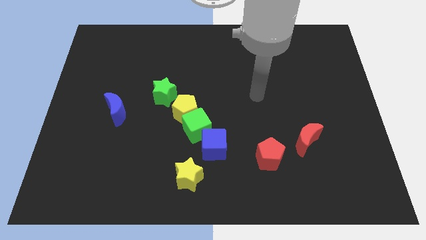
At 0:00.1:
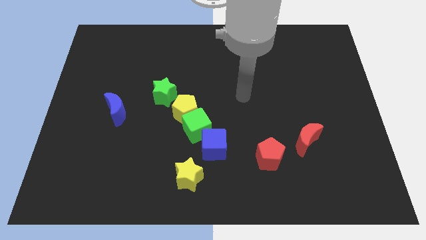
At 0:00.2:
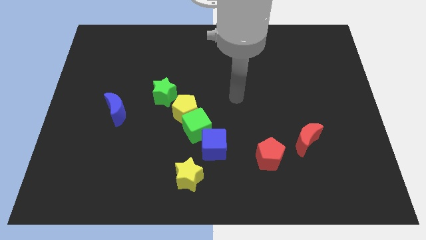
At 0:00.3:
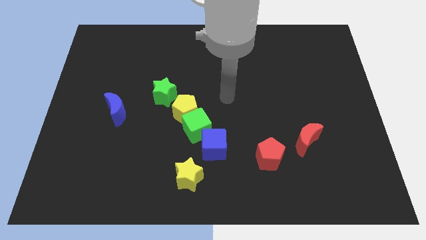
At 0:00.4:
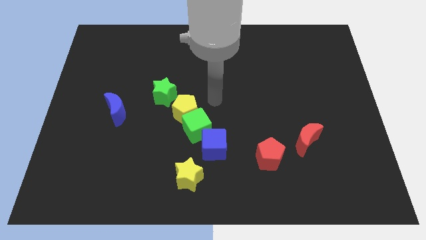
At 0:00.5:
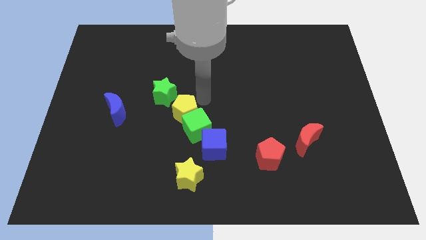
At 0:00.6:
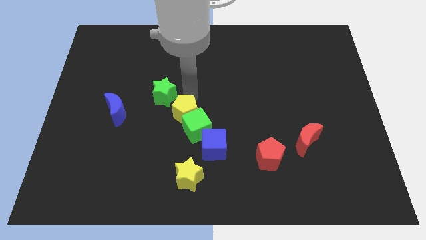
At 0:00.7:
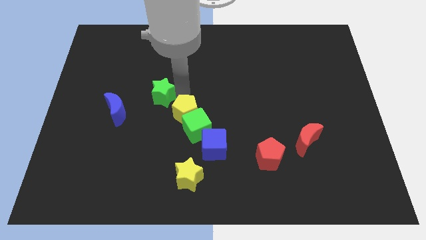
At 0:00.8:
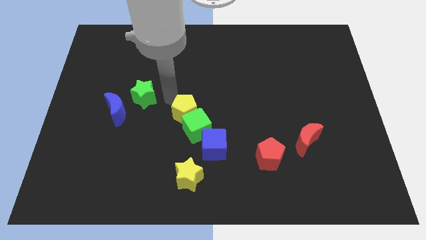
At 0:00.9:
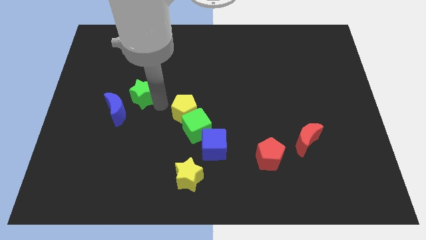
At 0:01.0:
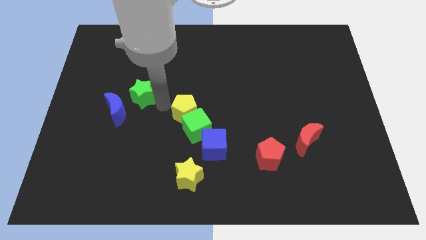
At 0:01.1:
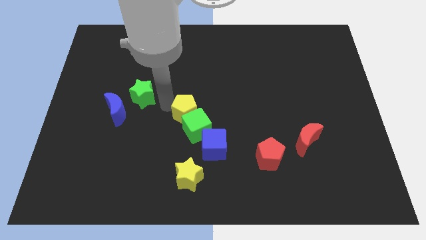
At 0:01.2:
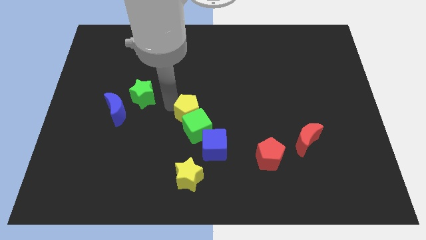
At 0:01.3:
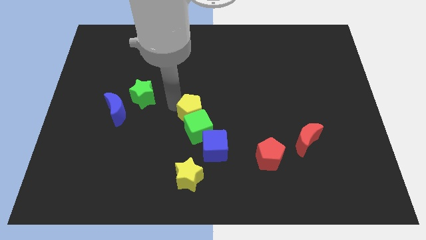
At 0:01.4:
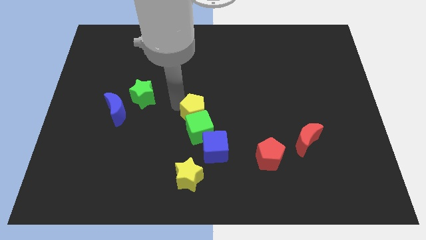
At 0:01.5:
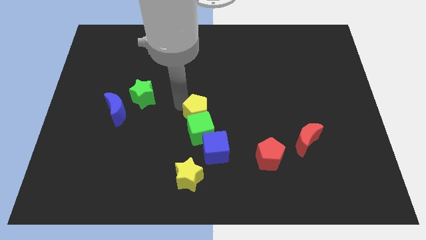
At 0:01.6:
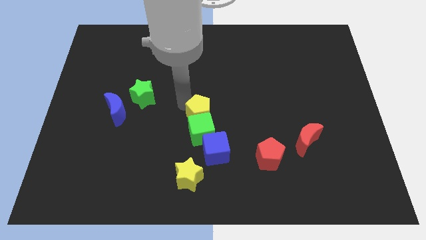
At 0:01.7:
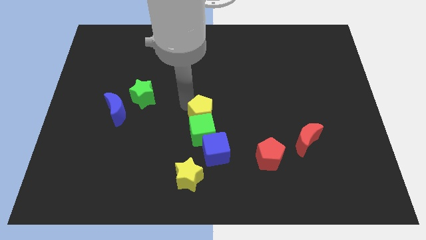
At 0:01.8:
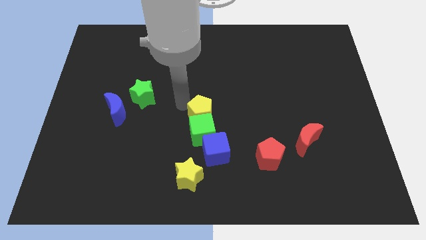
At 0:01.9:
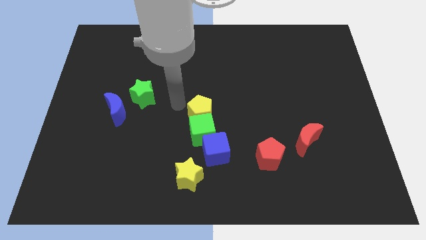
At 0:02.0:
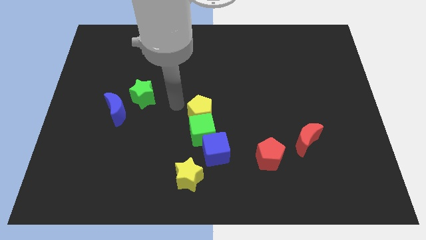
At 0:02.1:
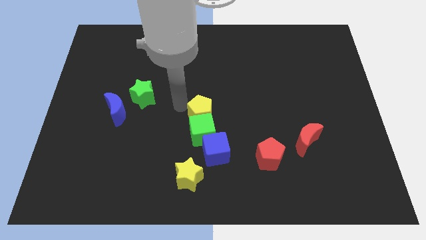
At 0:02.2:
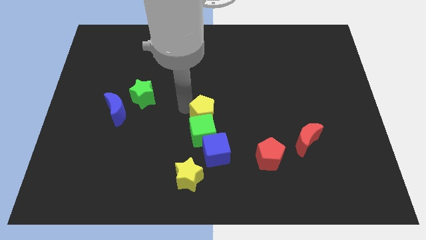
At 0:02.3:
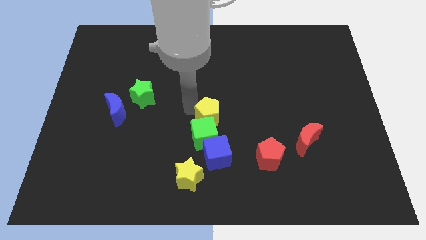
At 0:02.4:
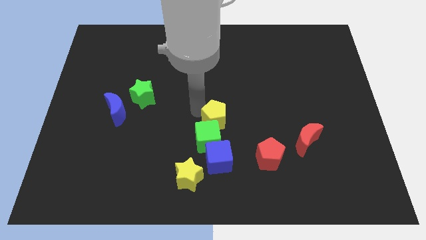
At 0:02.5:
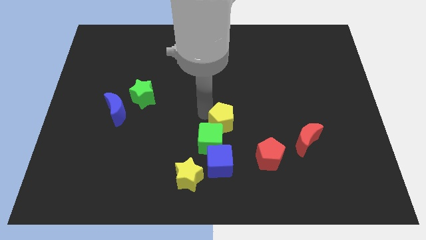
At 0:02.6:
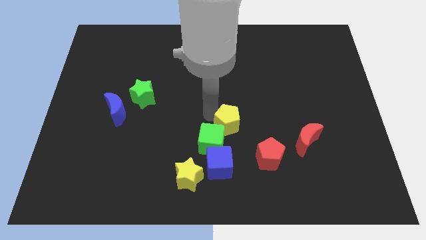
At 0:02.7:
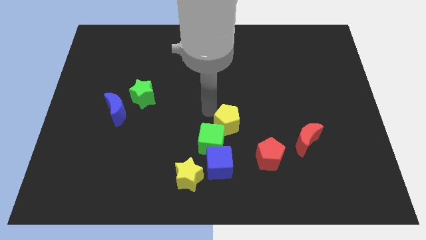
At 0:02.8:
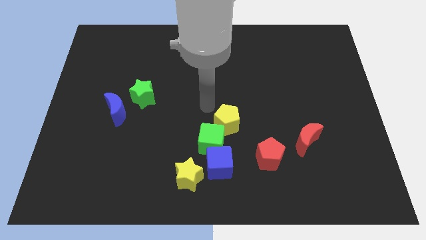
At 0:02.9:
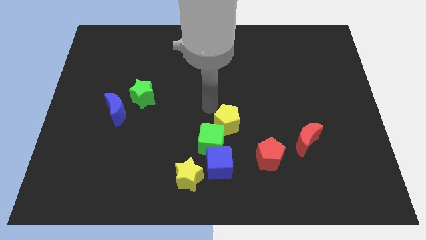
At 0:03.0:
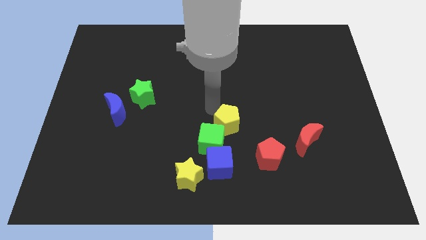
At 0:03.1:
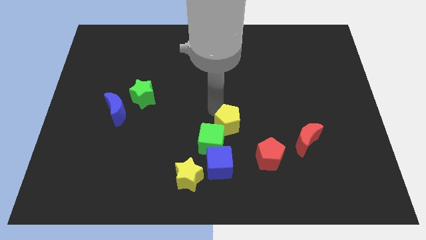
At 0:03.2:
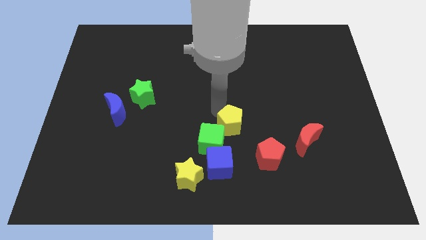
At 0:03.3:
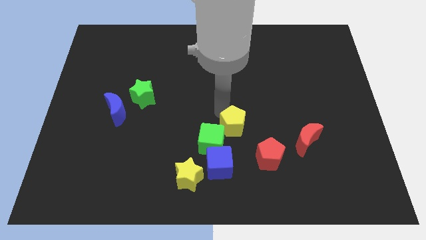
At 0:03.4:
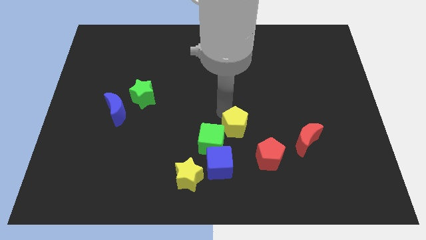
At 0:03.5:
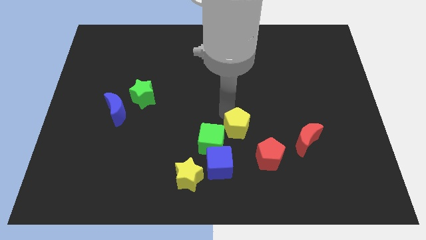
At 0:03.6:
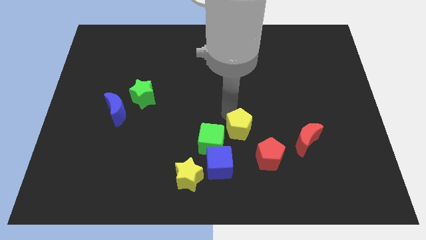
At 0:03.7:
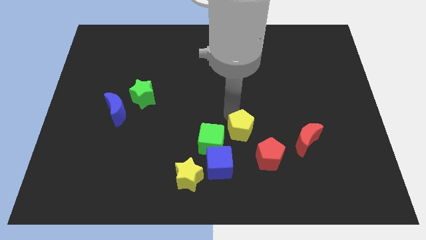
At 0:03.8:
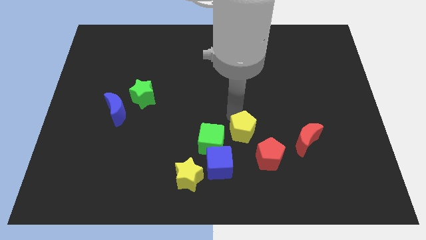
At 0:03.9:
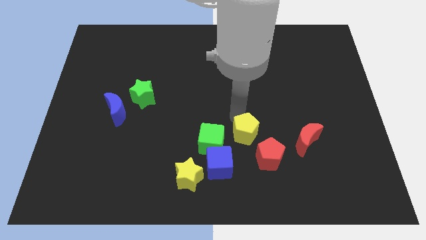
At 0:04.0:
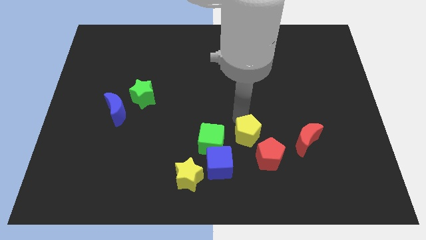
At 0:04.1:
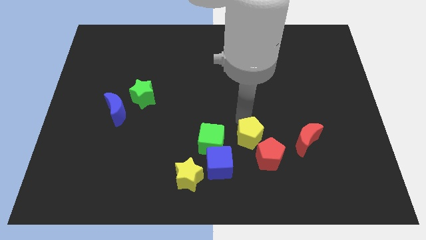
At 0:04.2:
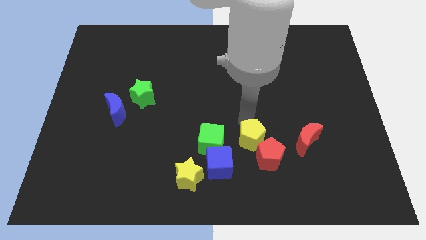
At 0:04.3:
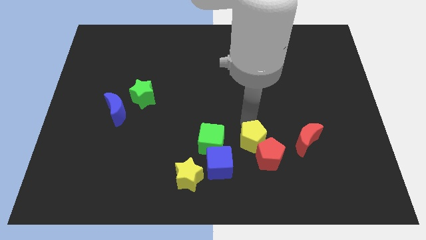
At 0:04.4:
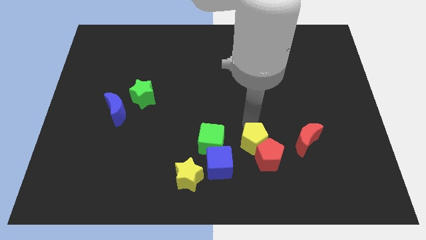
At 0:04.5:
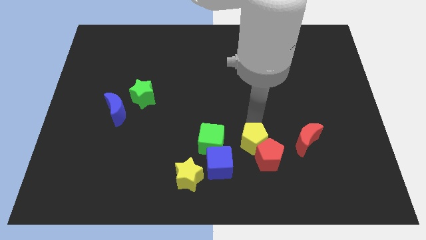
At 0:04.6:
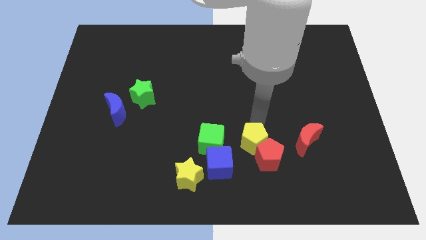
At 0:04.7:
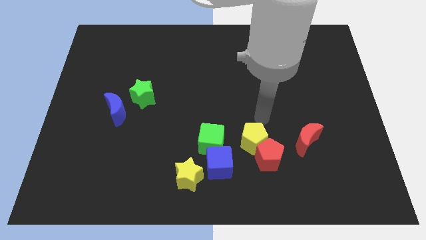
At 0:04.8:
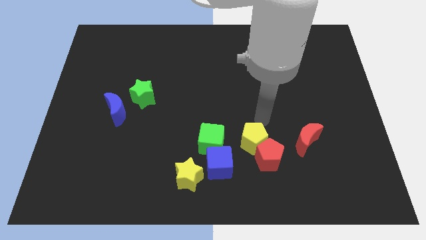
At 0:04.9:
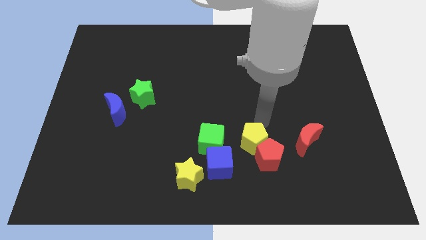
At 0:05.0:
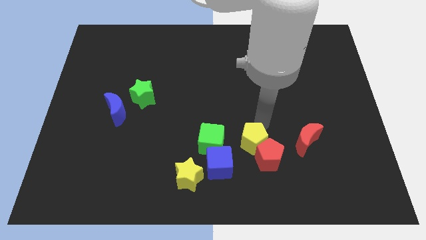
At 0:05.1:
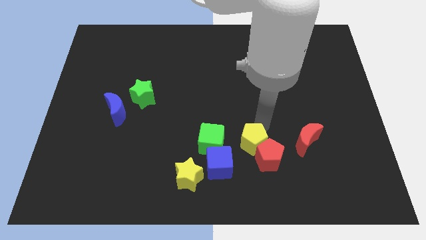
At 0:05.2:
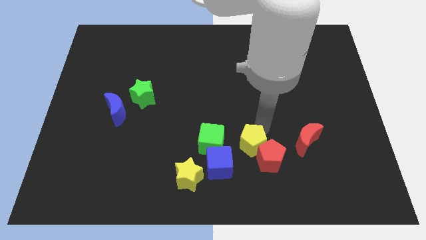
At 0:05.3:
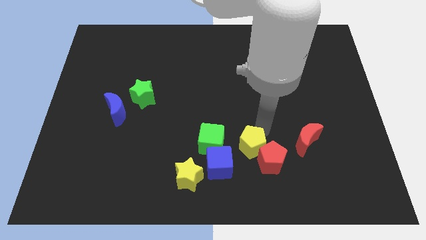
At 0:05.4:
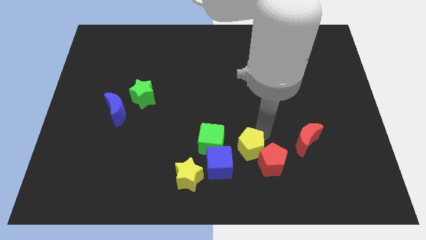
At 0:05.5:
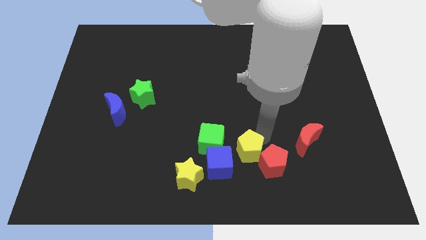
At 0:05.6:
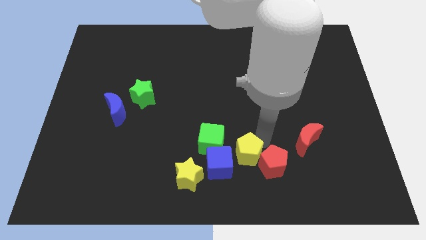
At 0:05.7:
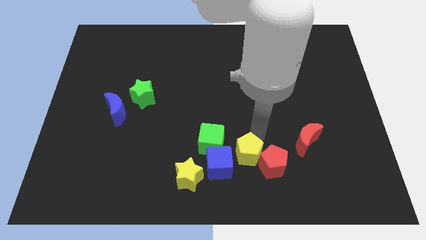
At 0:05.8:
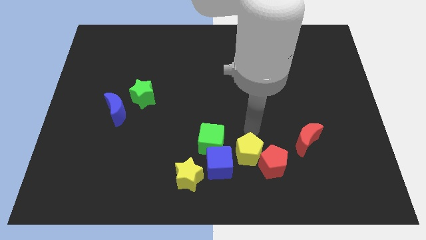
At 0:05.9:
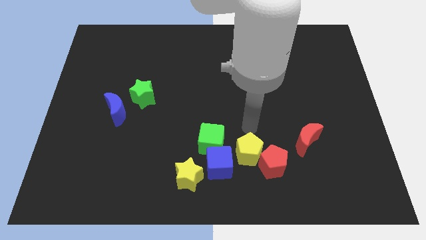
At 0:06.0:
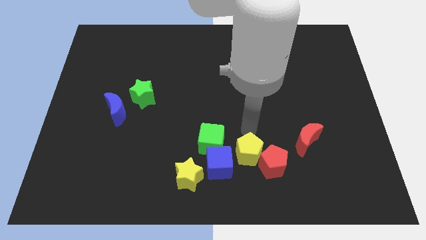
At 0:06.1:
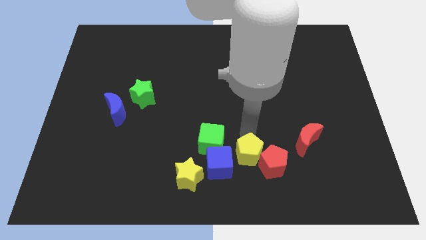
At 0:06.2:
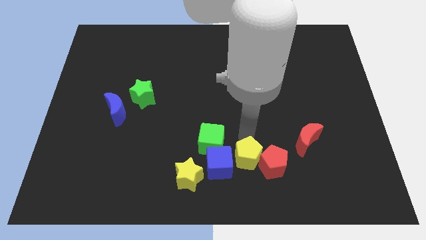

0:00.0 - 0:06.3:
put the yellow pentagon diagonally down and to the left of the red pentagon

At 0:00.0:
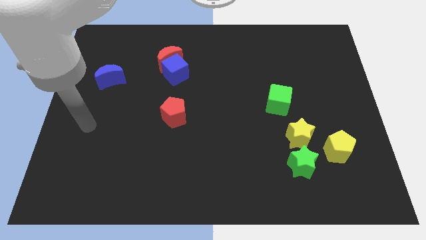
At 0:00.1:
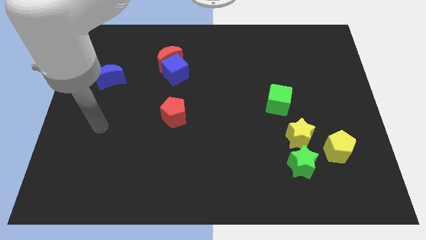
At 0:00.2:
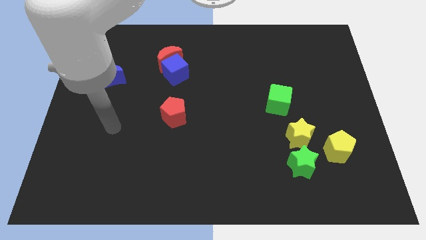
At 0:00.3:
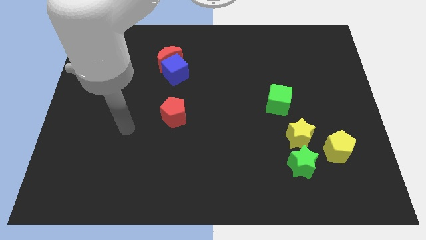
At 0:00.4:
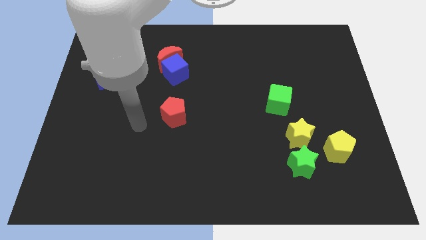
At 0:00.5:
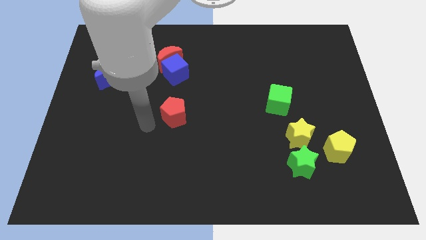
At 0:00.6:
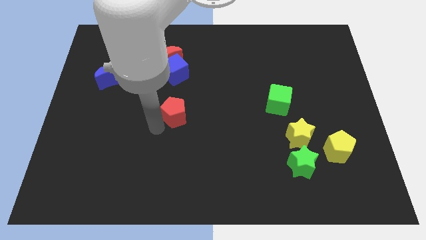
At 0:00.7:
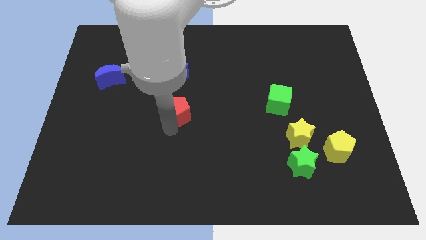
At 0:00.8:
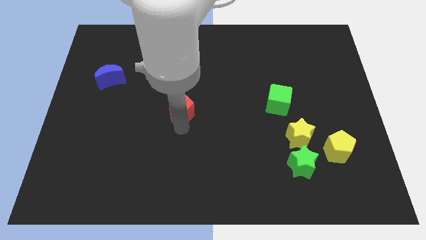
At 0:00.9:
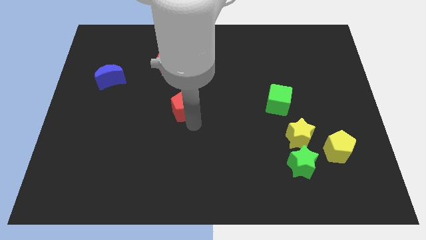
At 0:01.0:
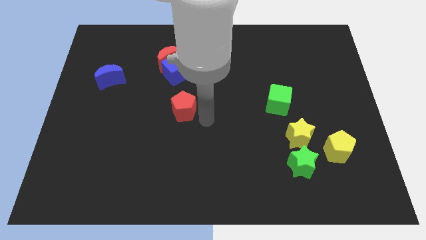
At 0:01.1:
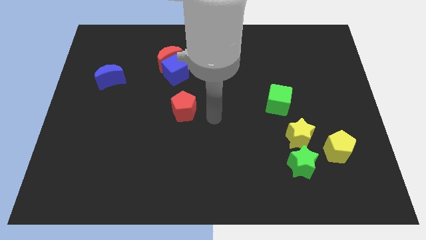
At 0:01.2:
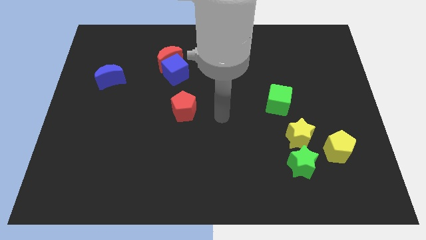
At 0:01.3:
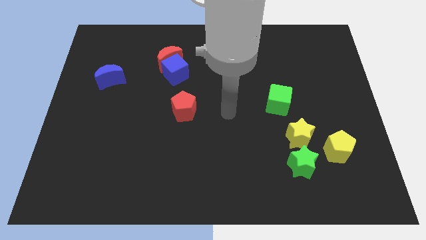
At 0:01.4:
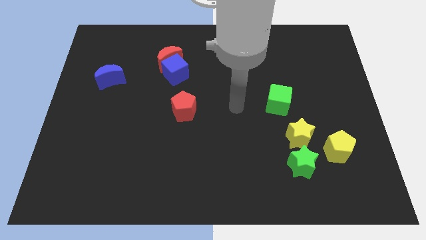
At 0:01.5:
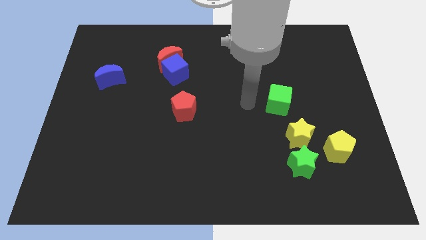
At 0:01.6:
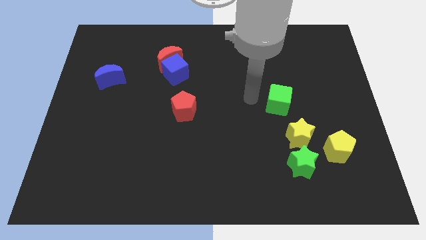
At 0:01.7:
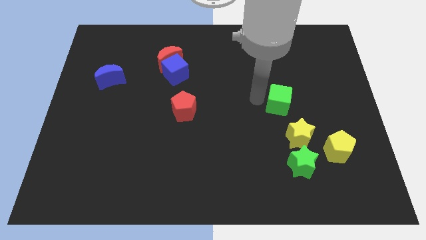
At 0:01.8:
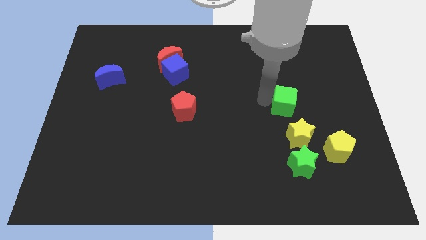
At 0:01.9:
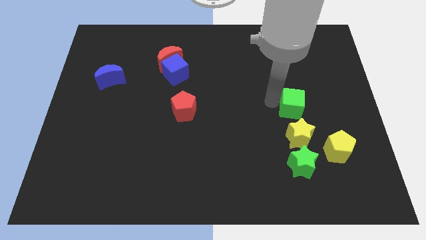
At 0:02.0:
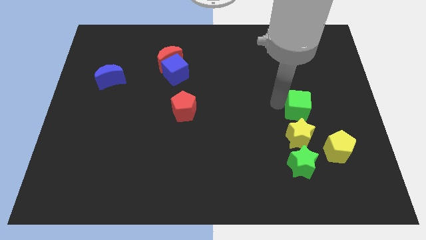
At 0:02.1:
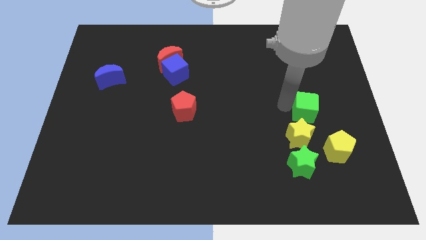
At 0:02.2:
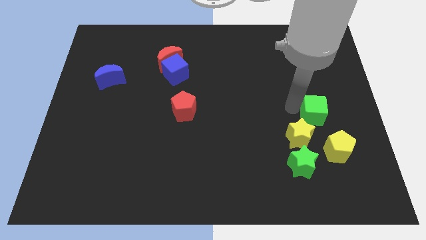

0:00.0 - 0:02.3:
slide the green cube to the top of the yellow pentagon
